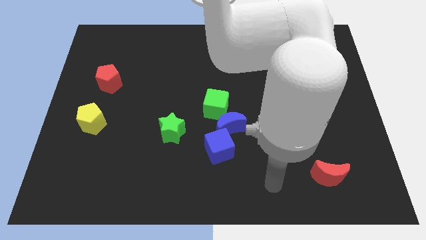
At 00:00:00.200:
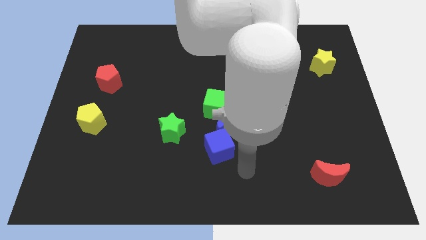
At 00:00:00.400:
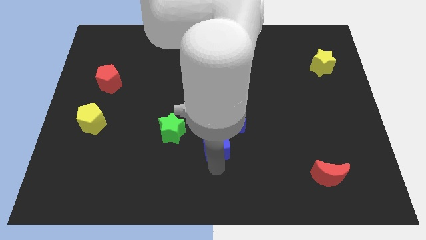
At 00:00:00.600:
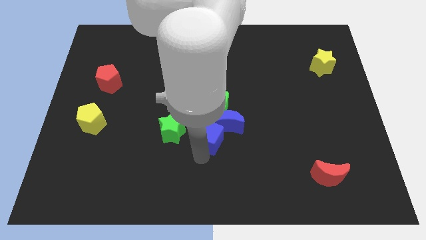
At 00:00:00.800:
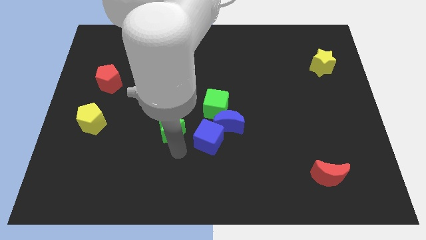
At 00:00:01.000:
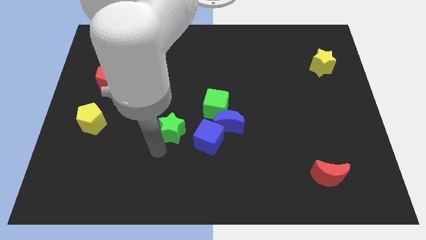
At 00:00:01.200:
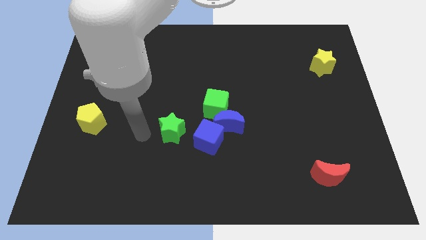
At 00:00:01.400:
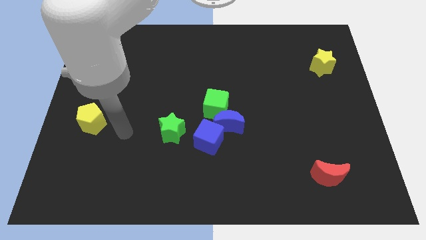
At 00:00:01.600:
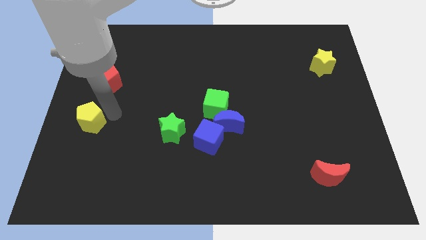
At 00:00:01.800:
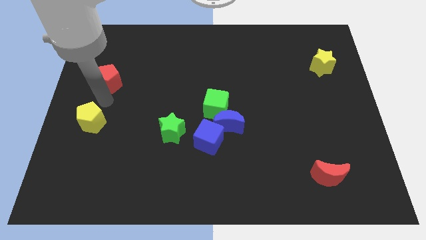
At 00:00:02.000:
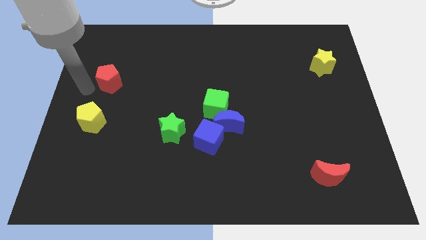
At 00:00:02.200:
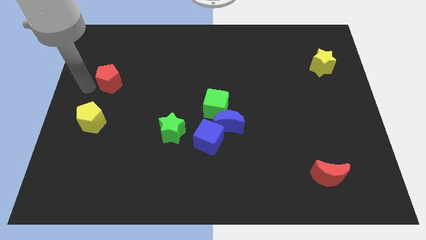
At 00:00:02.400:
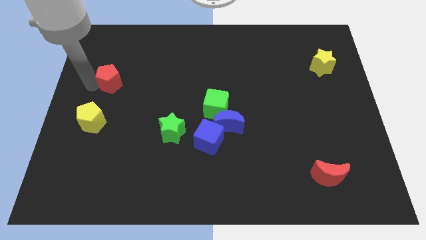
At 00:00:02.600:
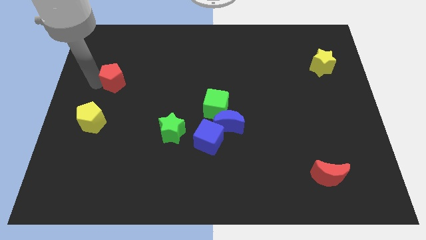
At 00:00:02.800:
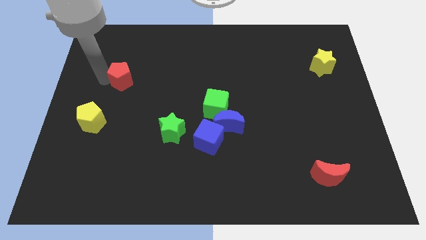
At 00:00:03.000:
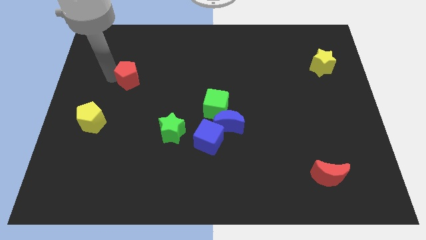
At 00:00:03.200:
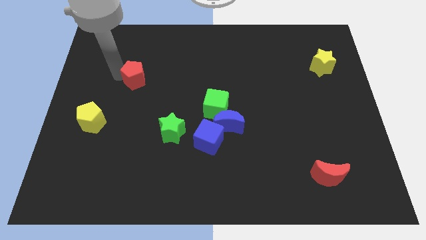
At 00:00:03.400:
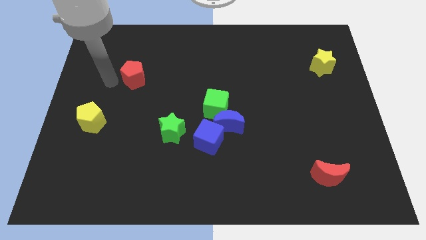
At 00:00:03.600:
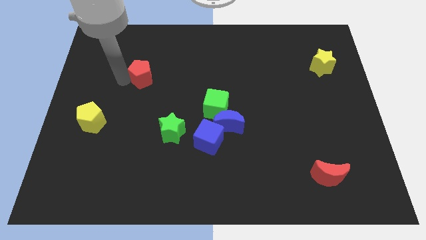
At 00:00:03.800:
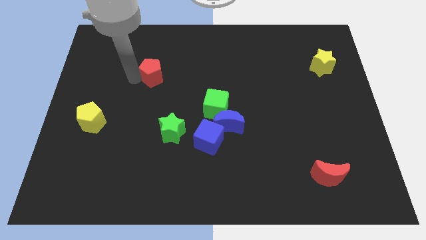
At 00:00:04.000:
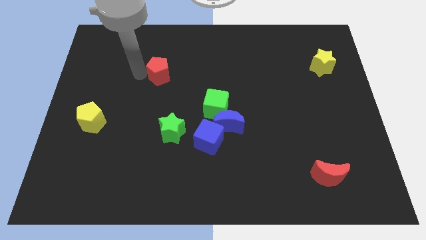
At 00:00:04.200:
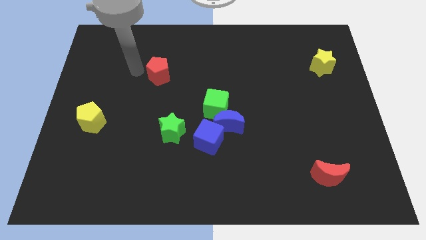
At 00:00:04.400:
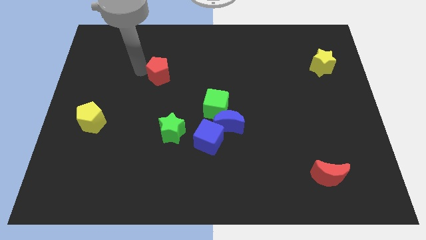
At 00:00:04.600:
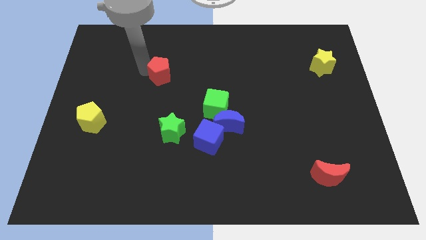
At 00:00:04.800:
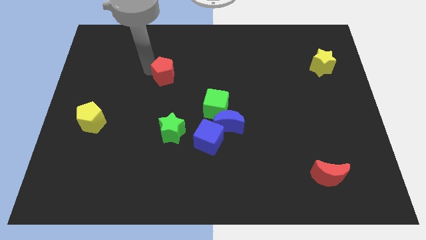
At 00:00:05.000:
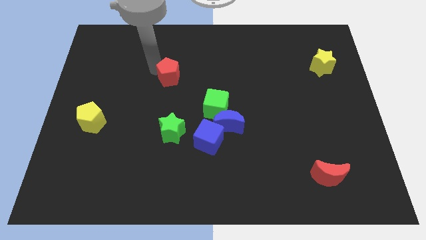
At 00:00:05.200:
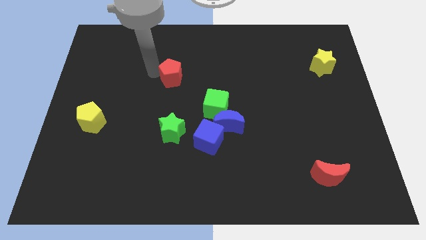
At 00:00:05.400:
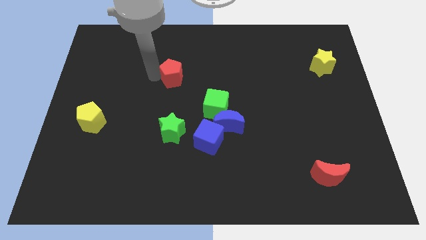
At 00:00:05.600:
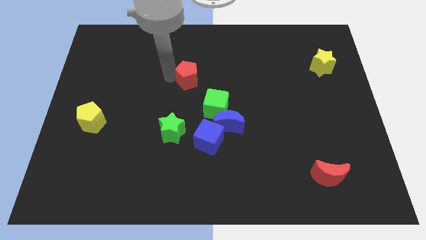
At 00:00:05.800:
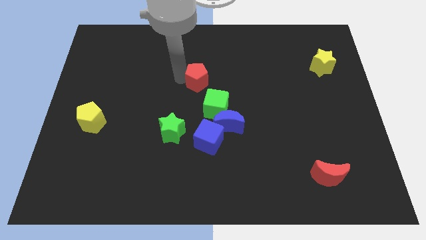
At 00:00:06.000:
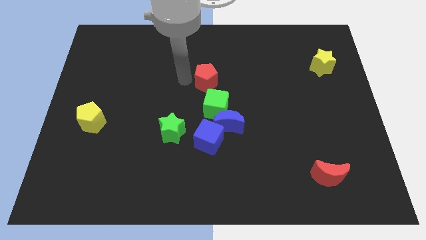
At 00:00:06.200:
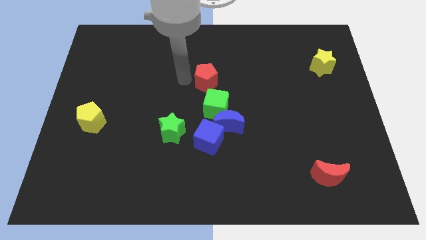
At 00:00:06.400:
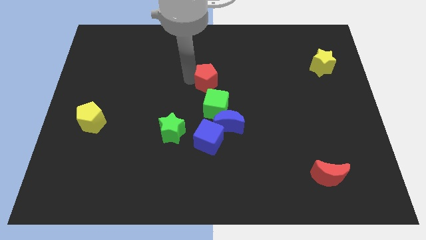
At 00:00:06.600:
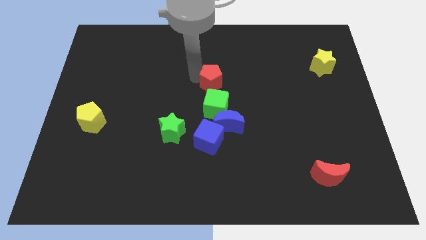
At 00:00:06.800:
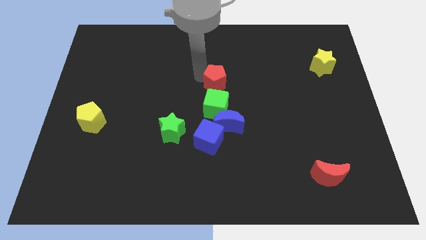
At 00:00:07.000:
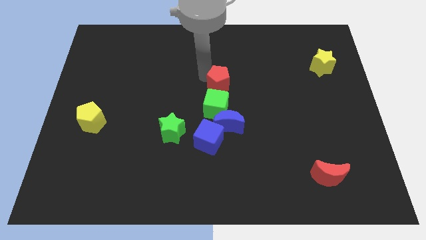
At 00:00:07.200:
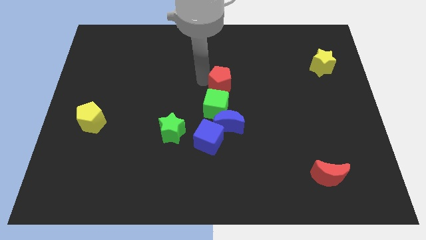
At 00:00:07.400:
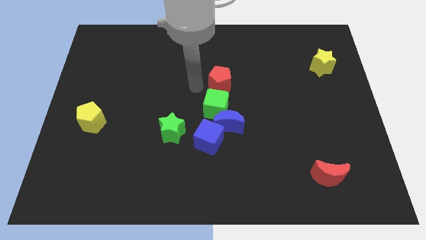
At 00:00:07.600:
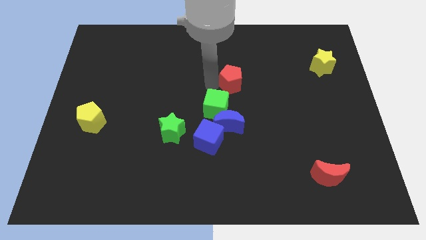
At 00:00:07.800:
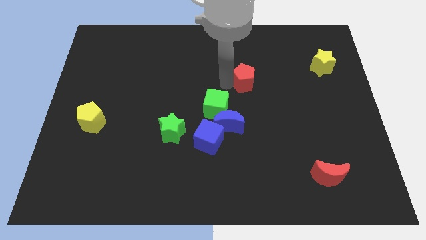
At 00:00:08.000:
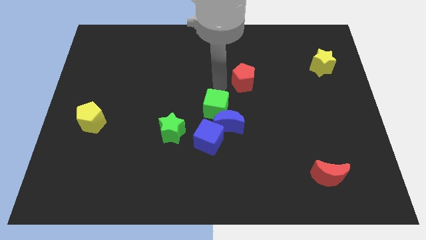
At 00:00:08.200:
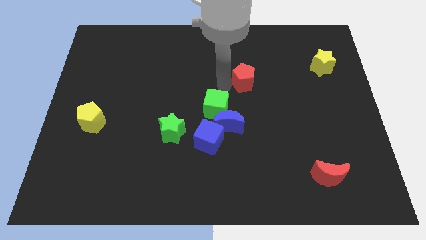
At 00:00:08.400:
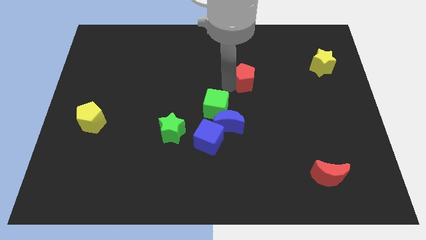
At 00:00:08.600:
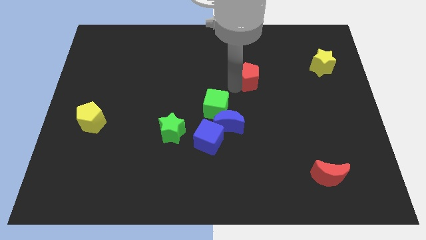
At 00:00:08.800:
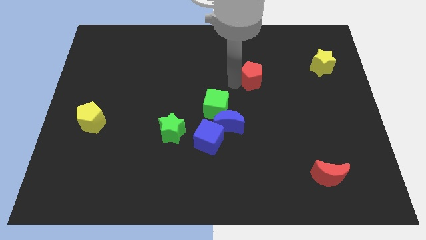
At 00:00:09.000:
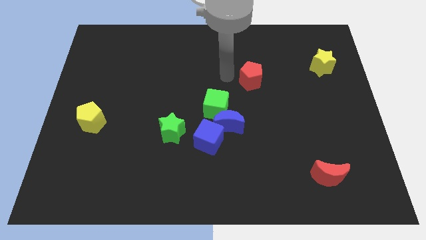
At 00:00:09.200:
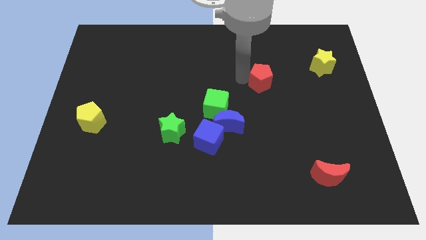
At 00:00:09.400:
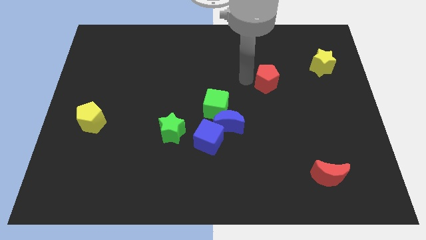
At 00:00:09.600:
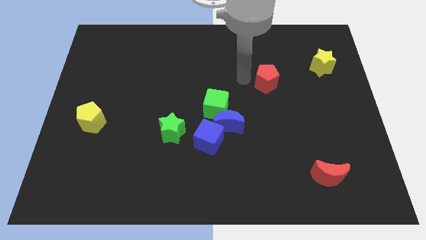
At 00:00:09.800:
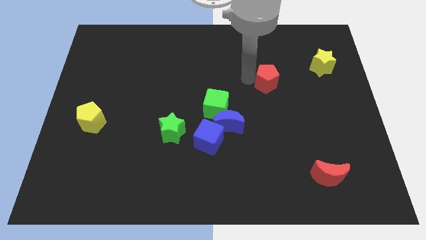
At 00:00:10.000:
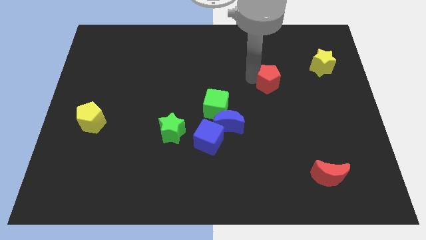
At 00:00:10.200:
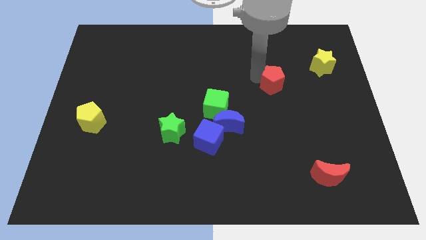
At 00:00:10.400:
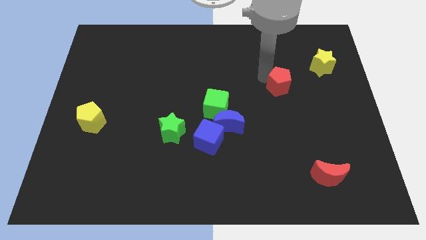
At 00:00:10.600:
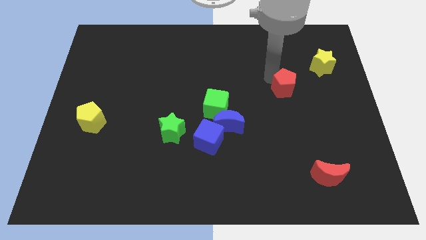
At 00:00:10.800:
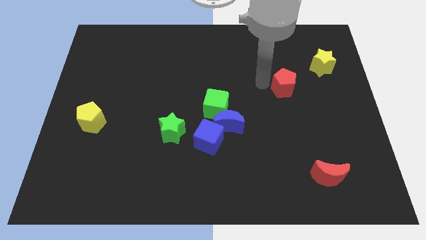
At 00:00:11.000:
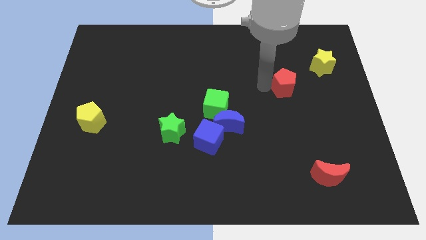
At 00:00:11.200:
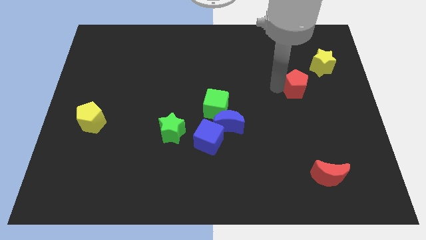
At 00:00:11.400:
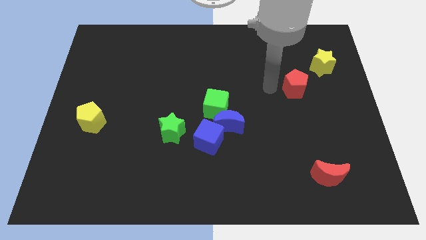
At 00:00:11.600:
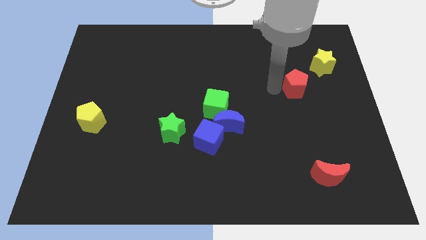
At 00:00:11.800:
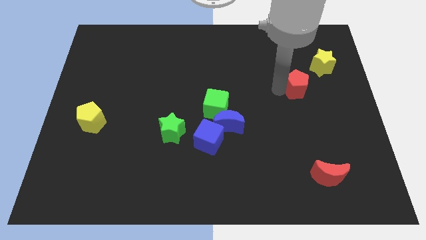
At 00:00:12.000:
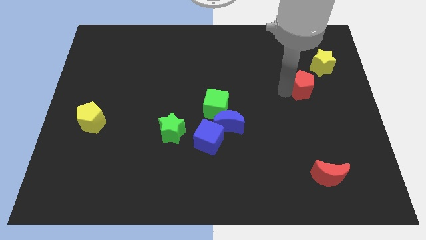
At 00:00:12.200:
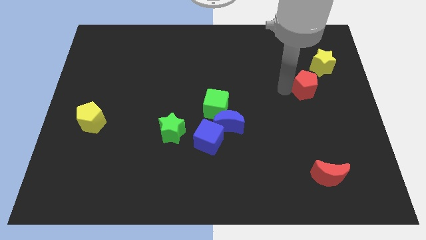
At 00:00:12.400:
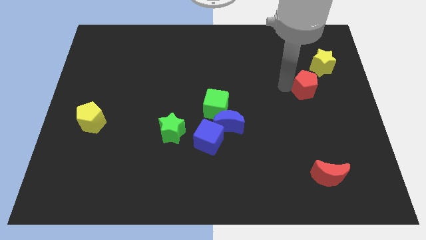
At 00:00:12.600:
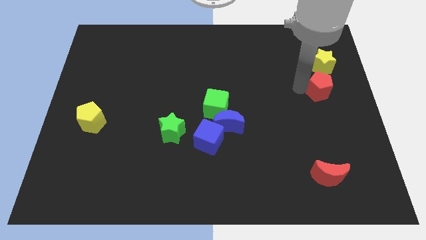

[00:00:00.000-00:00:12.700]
put the red pentagon to the right side

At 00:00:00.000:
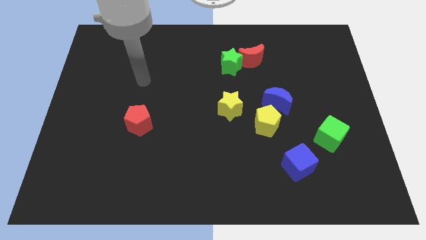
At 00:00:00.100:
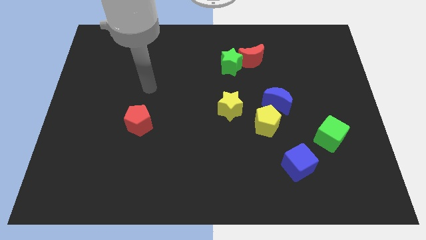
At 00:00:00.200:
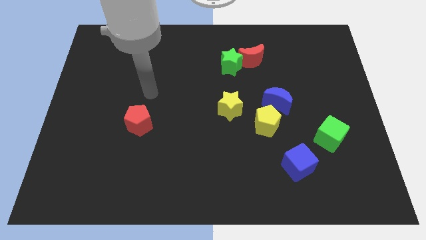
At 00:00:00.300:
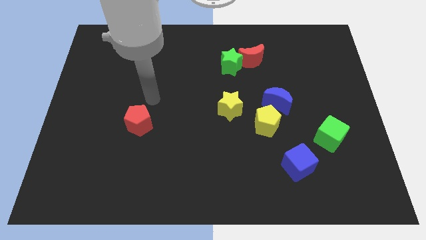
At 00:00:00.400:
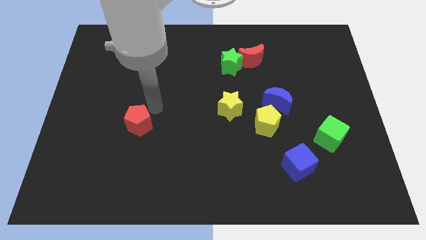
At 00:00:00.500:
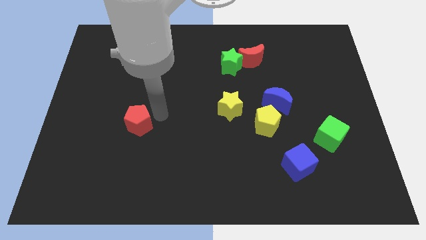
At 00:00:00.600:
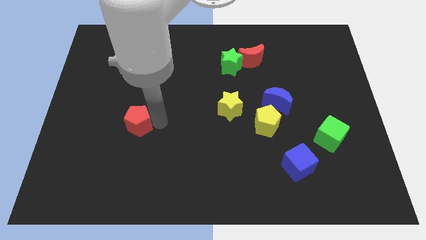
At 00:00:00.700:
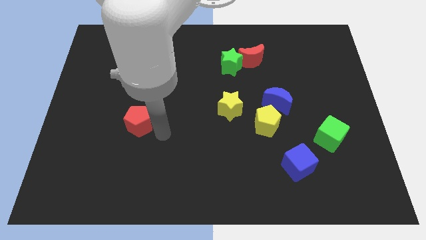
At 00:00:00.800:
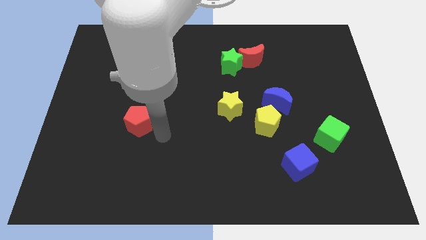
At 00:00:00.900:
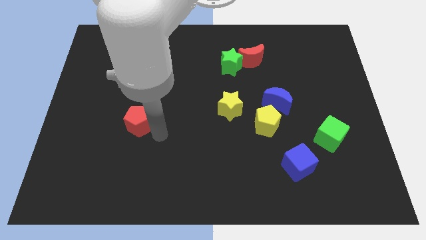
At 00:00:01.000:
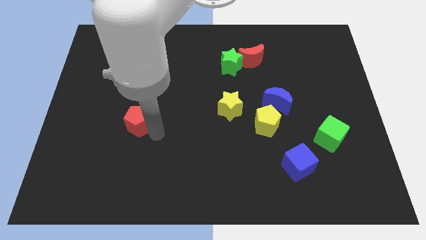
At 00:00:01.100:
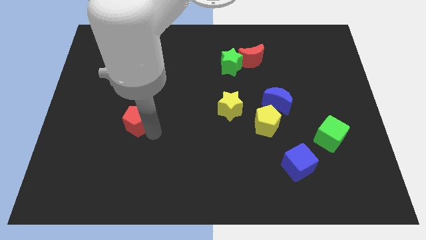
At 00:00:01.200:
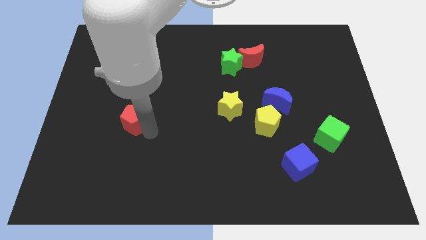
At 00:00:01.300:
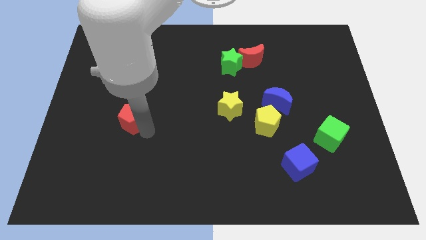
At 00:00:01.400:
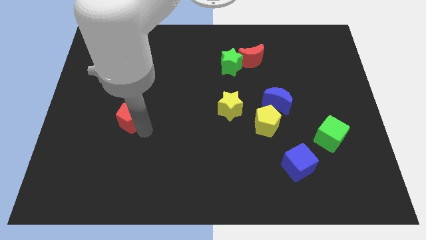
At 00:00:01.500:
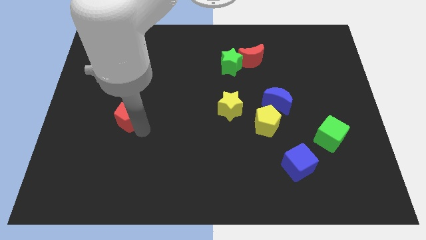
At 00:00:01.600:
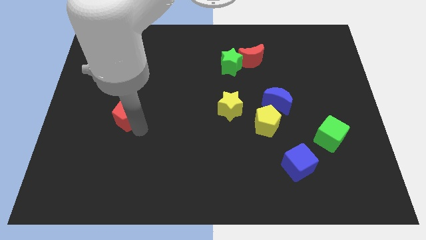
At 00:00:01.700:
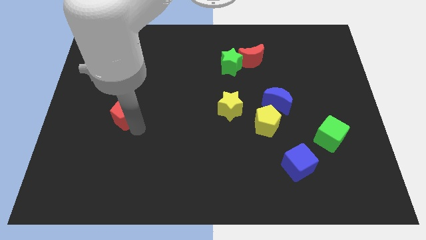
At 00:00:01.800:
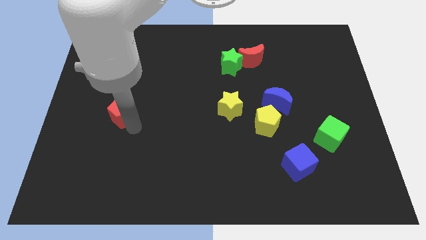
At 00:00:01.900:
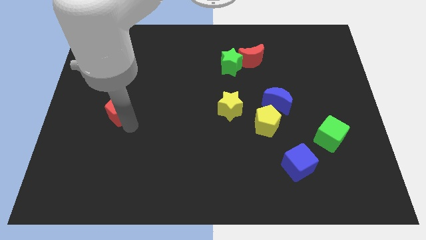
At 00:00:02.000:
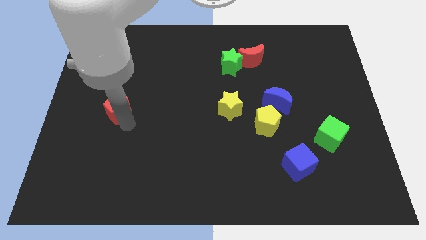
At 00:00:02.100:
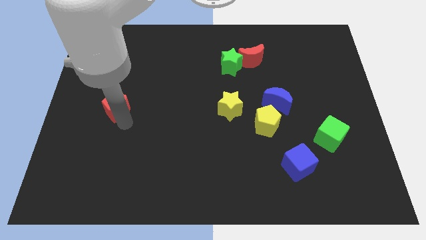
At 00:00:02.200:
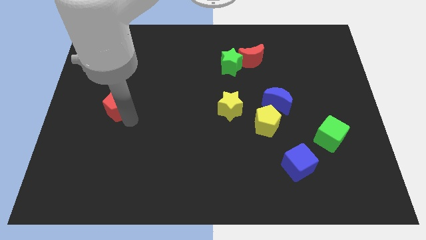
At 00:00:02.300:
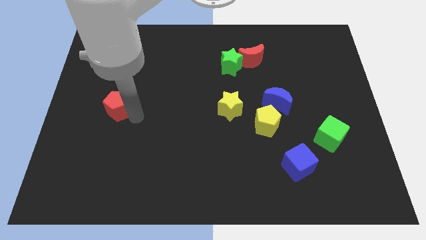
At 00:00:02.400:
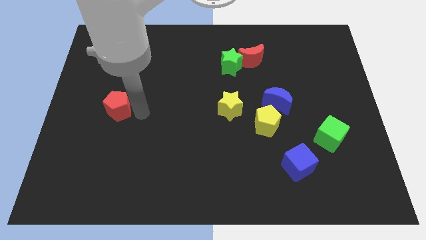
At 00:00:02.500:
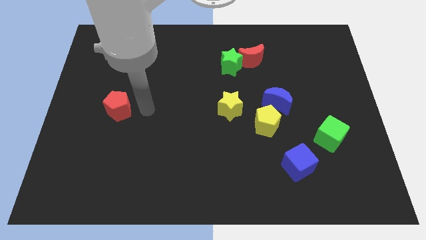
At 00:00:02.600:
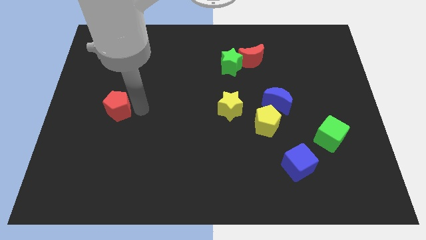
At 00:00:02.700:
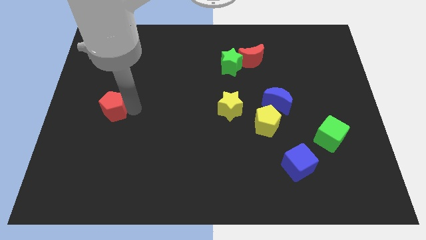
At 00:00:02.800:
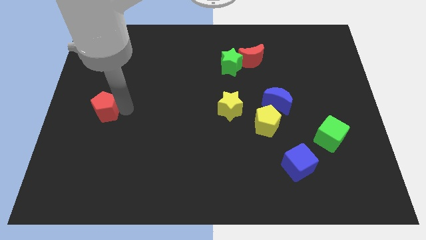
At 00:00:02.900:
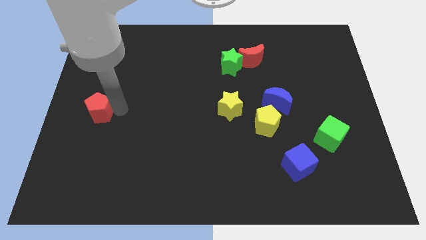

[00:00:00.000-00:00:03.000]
move the red pentagon to the left side of the board
